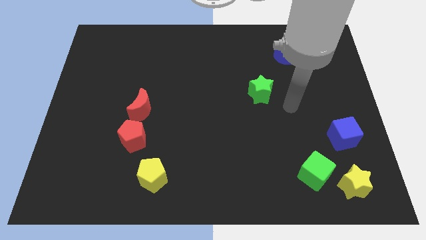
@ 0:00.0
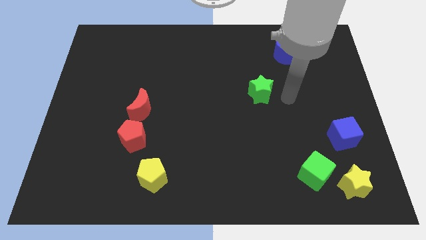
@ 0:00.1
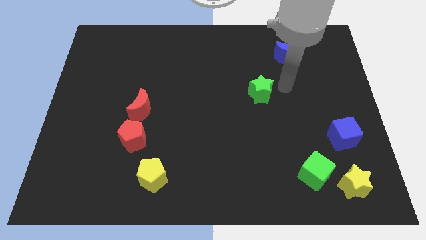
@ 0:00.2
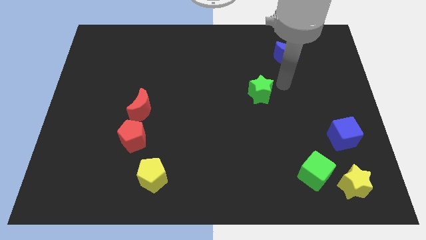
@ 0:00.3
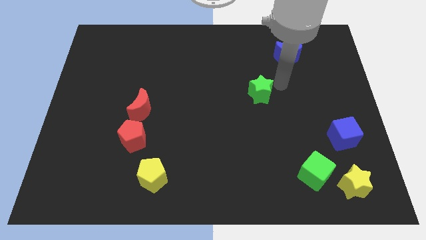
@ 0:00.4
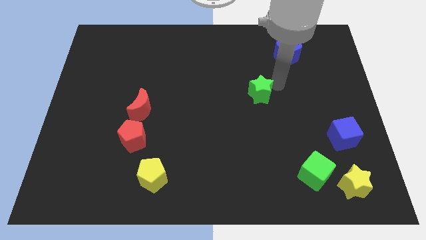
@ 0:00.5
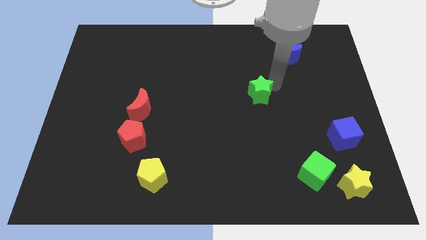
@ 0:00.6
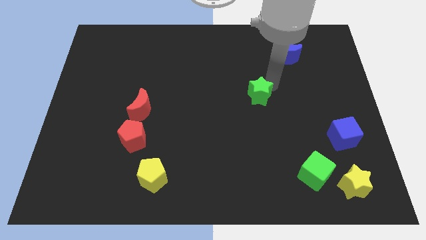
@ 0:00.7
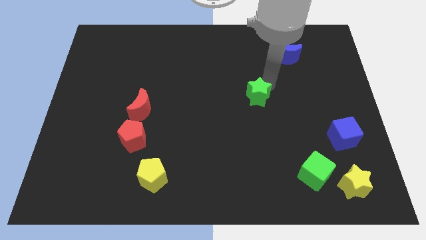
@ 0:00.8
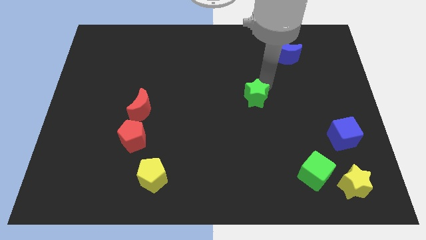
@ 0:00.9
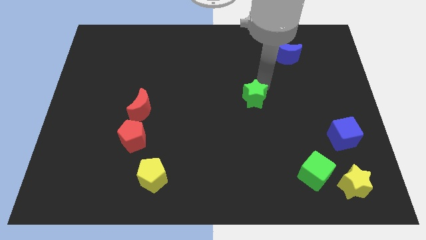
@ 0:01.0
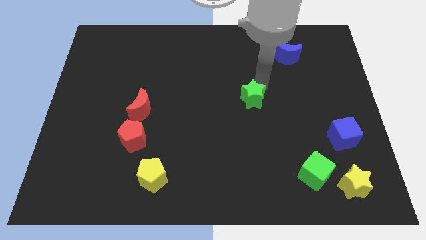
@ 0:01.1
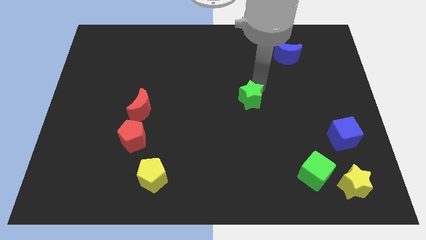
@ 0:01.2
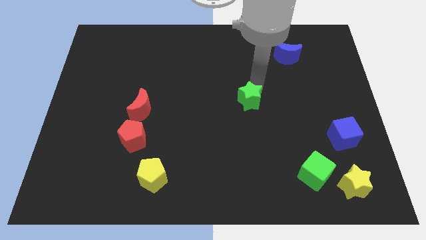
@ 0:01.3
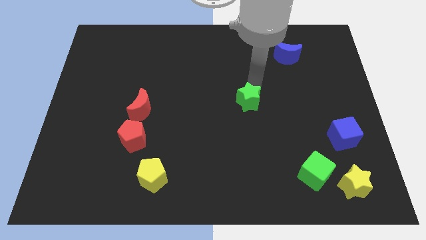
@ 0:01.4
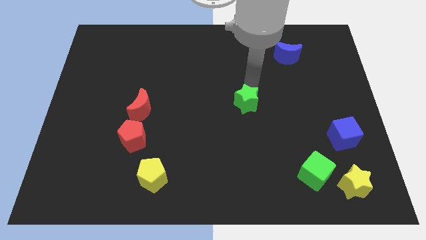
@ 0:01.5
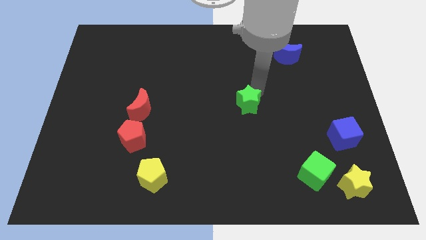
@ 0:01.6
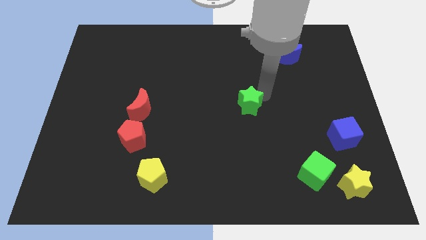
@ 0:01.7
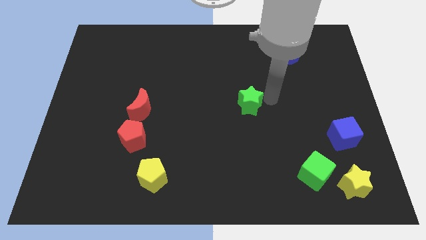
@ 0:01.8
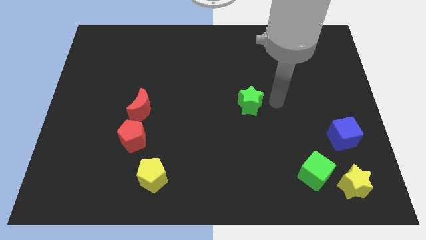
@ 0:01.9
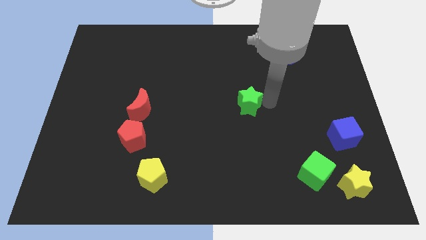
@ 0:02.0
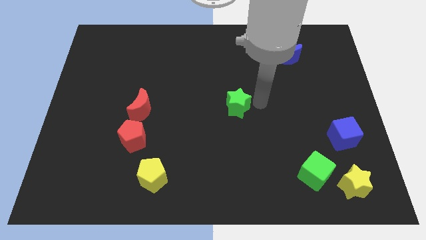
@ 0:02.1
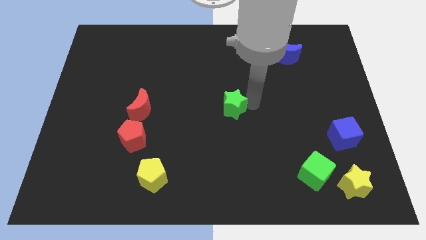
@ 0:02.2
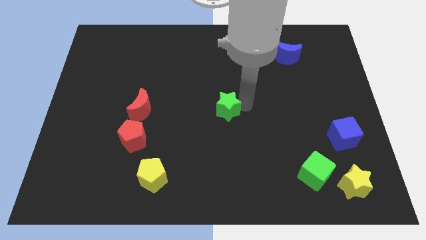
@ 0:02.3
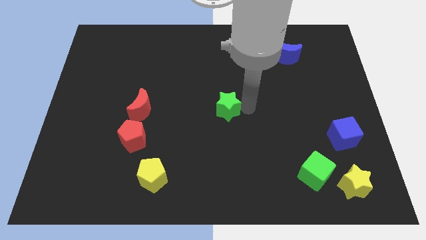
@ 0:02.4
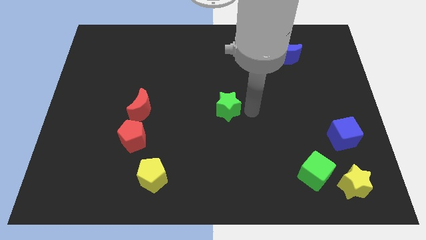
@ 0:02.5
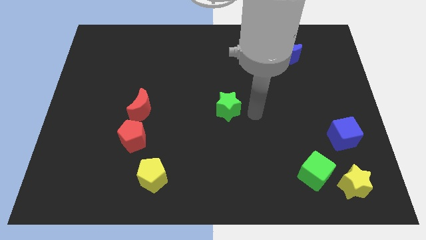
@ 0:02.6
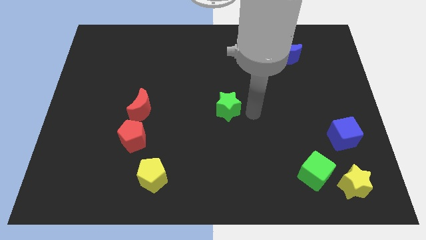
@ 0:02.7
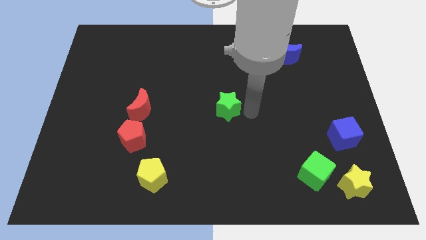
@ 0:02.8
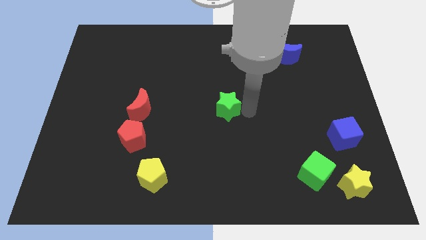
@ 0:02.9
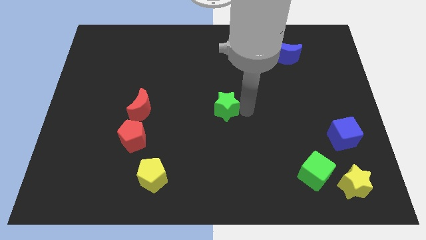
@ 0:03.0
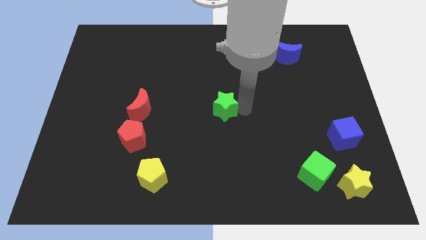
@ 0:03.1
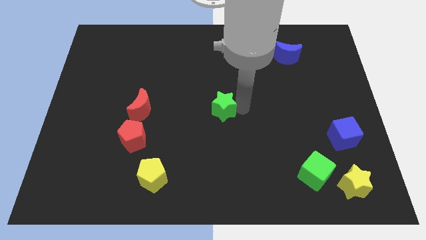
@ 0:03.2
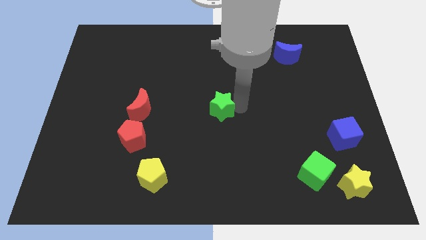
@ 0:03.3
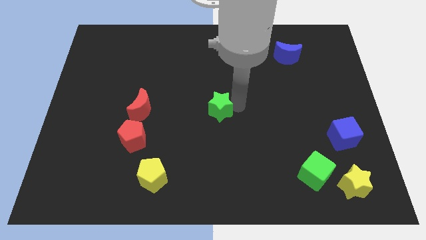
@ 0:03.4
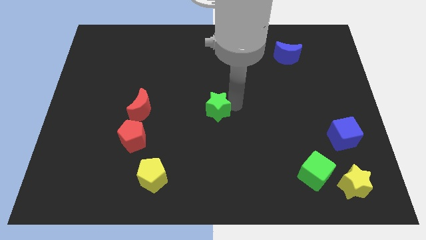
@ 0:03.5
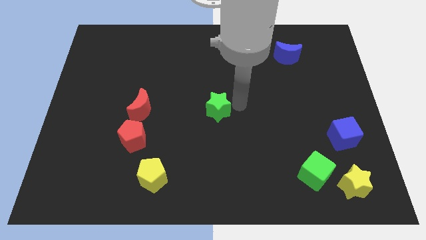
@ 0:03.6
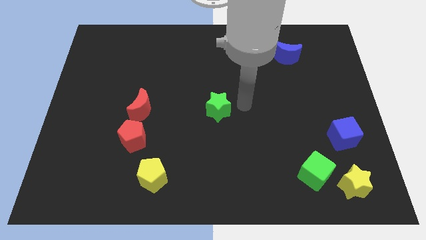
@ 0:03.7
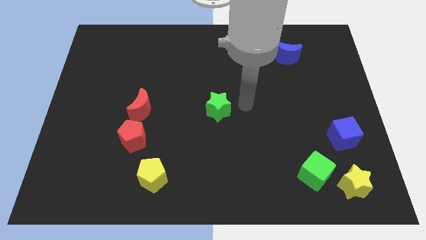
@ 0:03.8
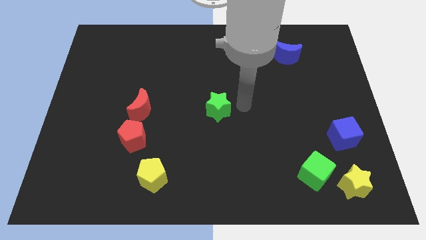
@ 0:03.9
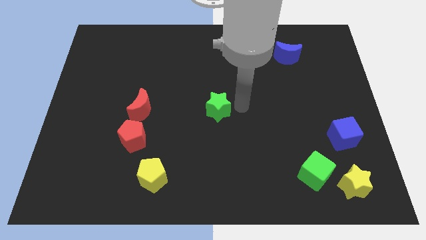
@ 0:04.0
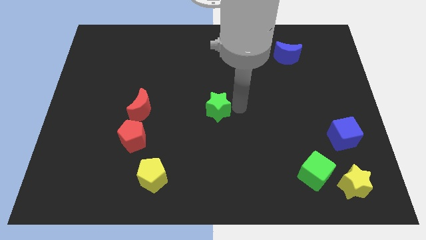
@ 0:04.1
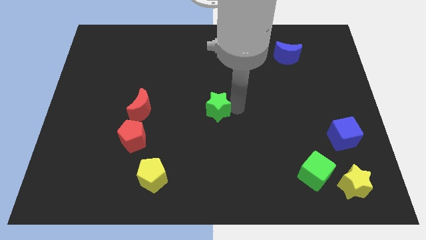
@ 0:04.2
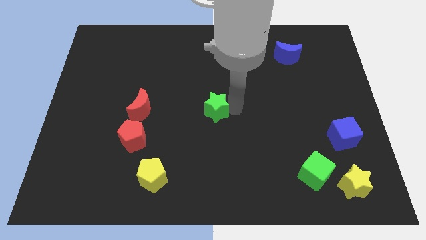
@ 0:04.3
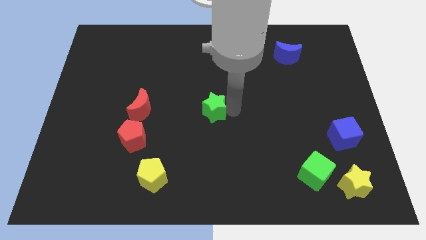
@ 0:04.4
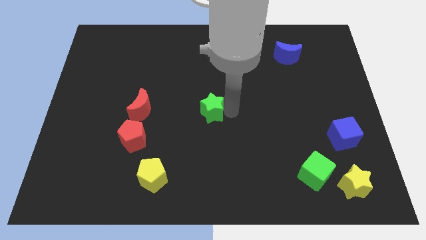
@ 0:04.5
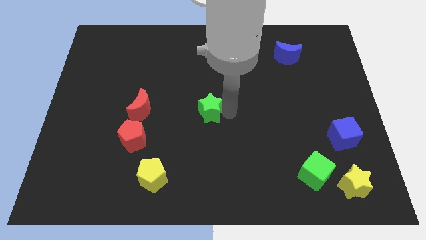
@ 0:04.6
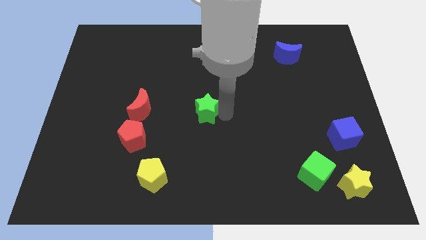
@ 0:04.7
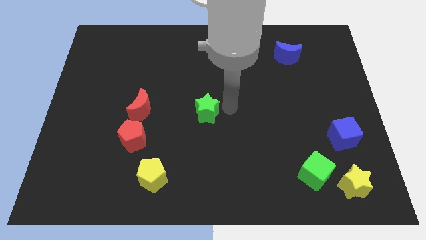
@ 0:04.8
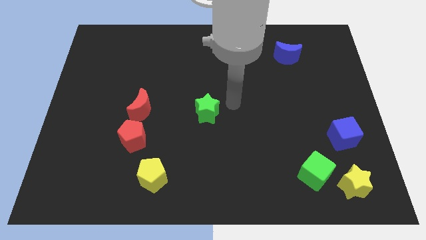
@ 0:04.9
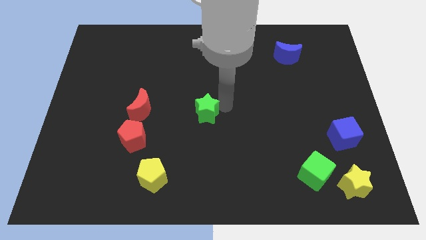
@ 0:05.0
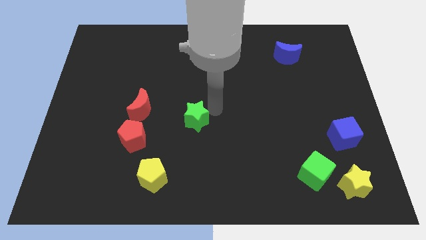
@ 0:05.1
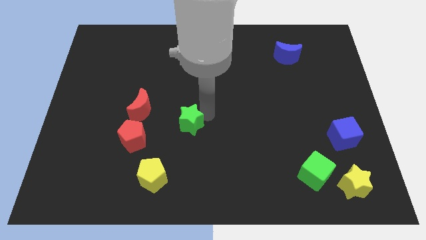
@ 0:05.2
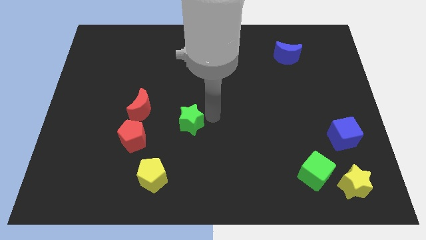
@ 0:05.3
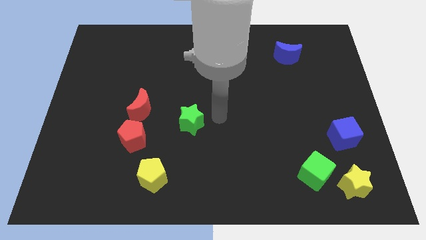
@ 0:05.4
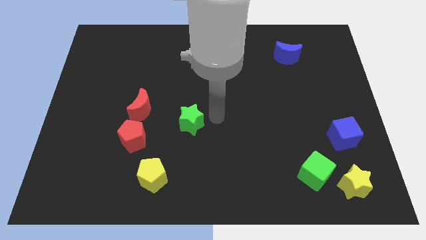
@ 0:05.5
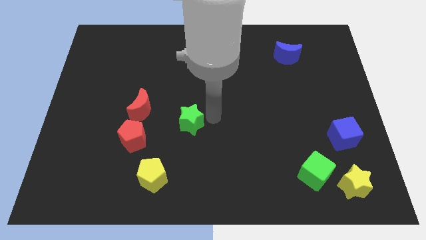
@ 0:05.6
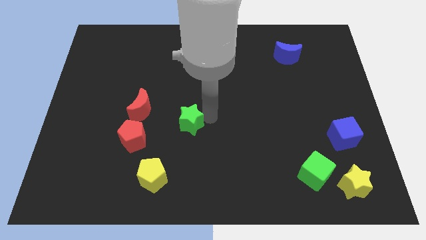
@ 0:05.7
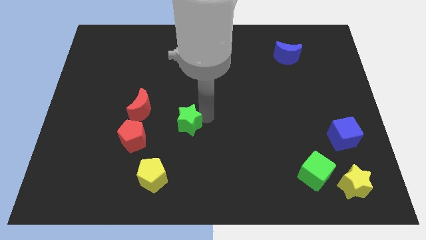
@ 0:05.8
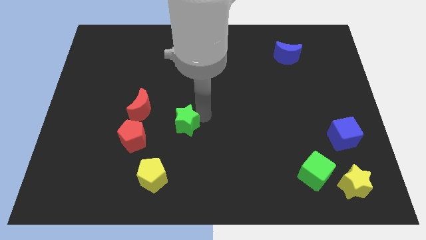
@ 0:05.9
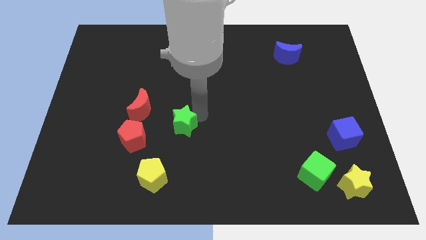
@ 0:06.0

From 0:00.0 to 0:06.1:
put the green star to the bottom right of the red moon

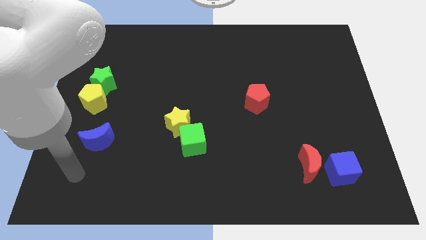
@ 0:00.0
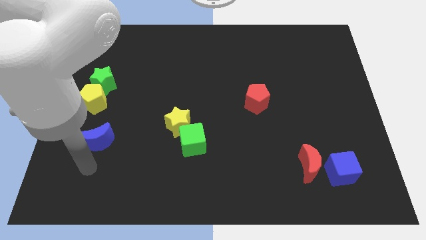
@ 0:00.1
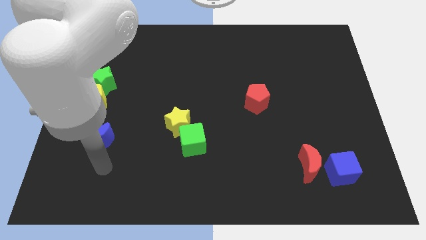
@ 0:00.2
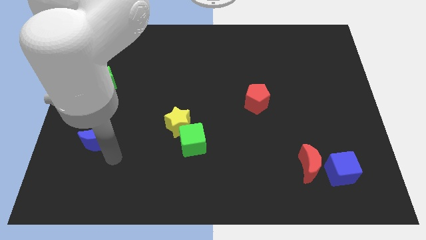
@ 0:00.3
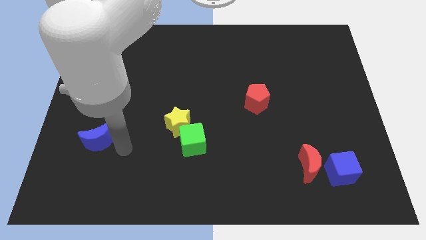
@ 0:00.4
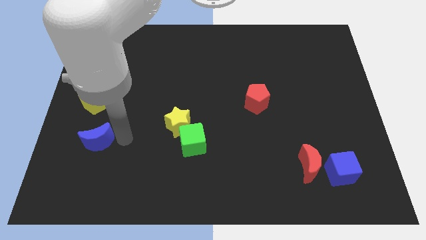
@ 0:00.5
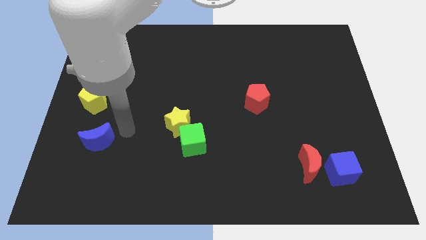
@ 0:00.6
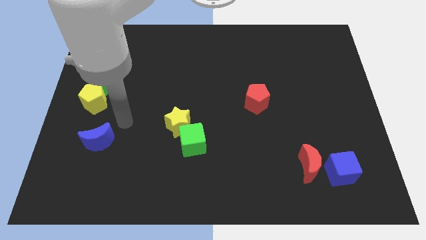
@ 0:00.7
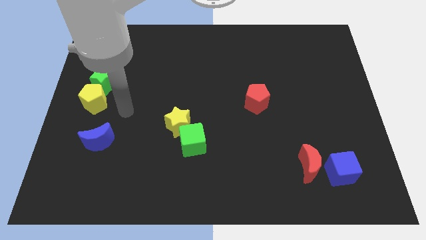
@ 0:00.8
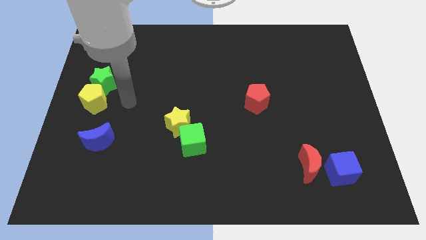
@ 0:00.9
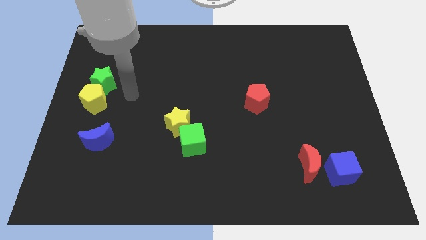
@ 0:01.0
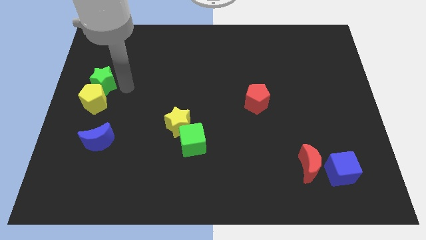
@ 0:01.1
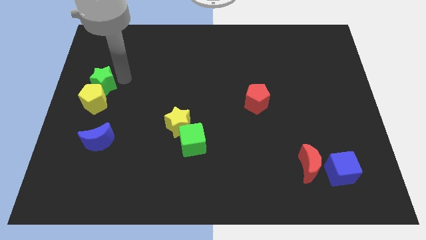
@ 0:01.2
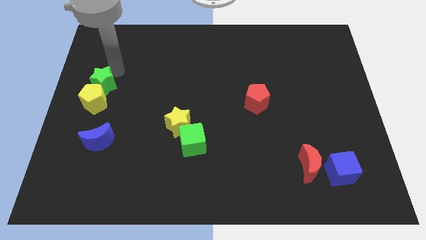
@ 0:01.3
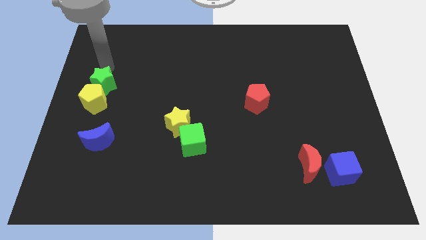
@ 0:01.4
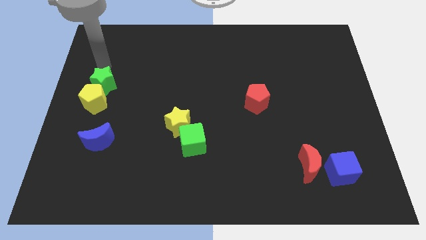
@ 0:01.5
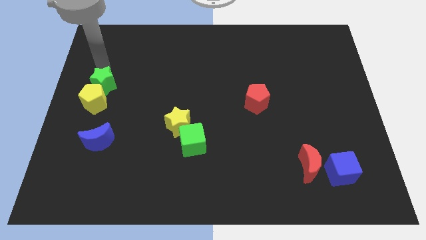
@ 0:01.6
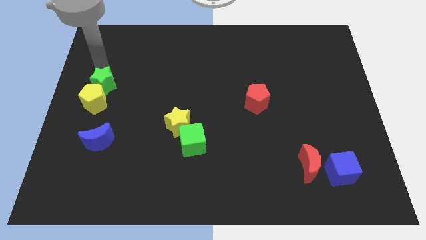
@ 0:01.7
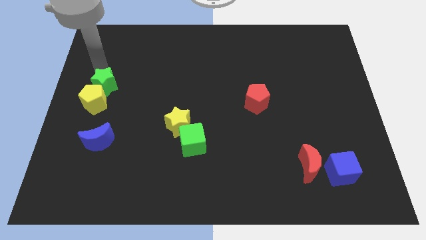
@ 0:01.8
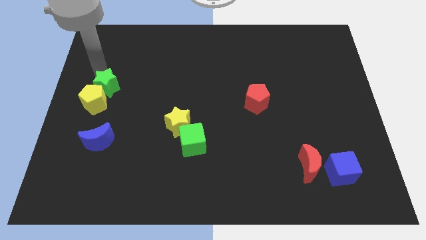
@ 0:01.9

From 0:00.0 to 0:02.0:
move the green star to the top side of the blue moon
